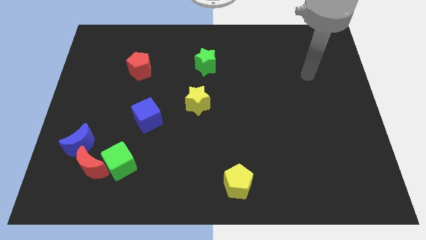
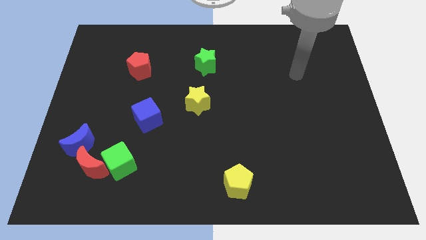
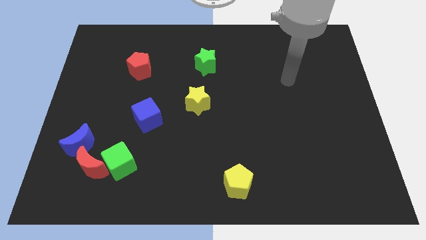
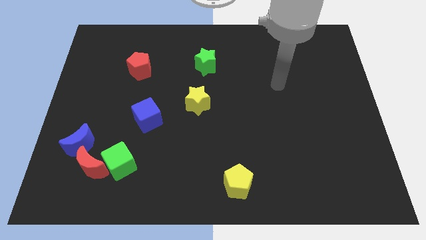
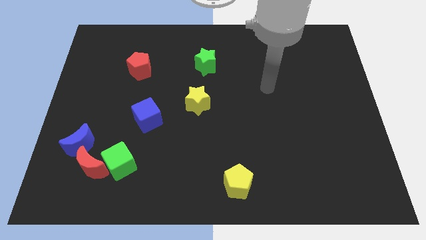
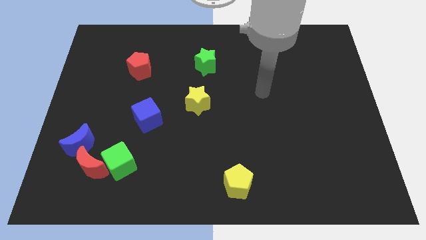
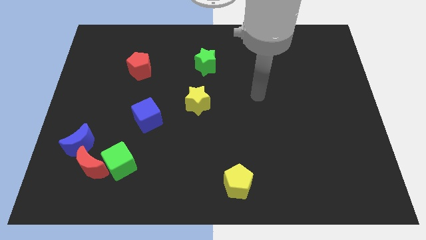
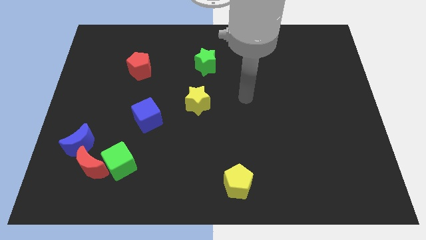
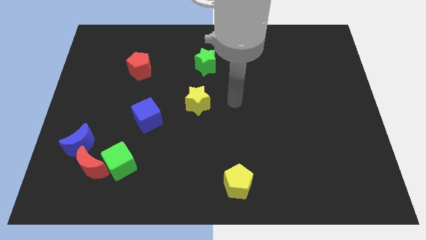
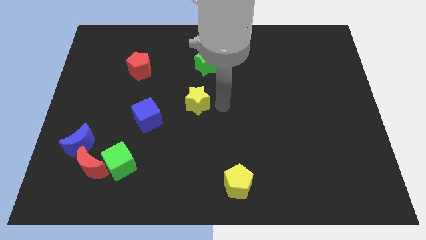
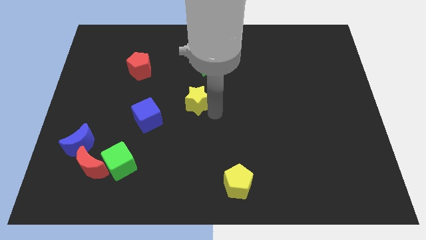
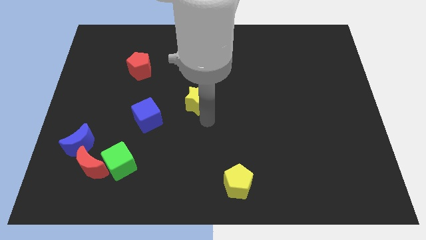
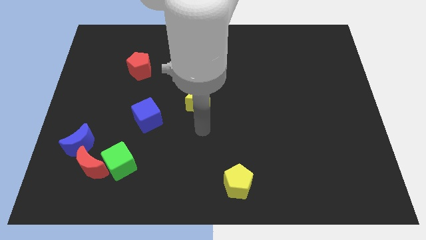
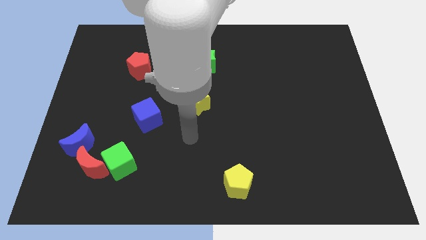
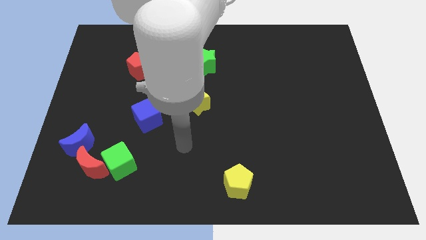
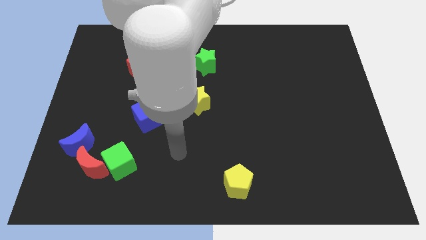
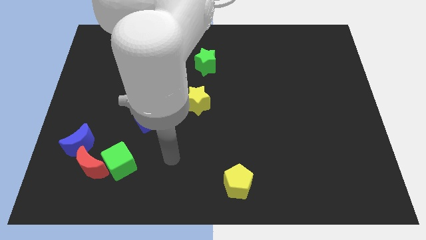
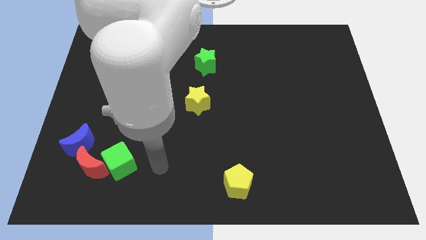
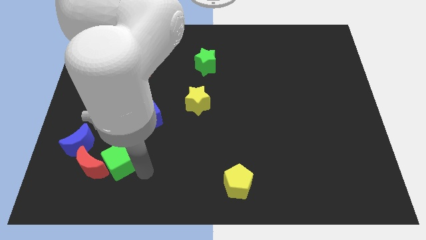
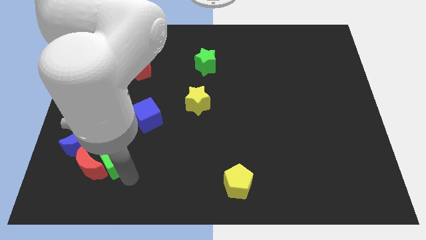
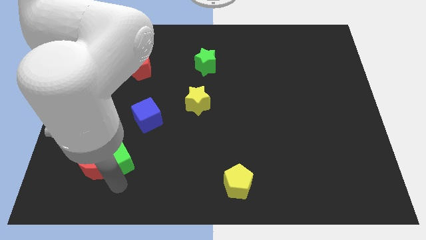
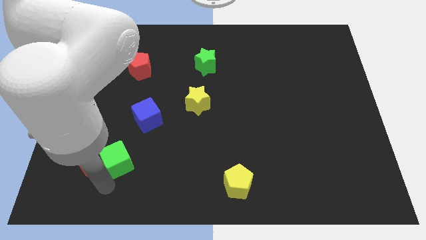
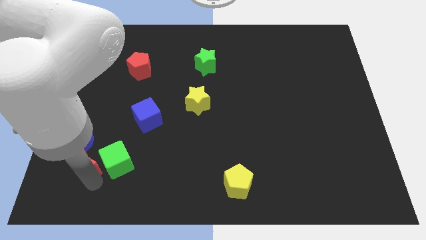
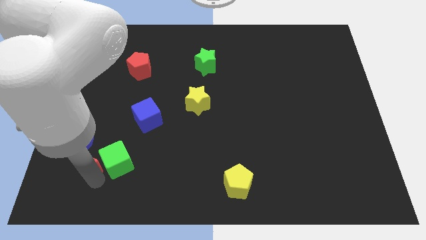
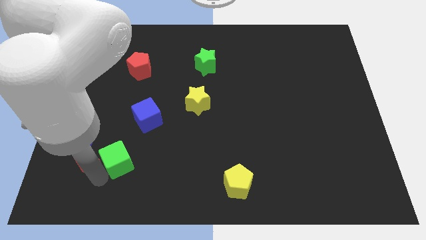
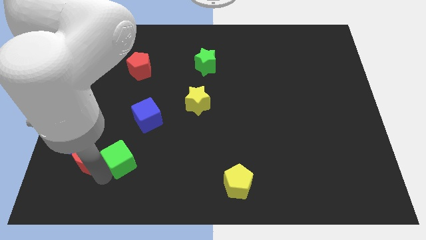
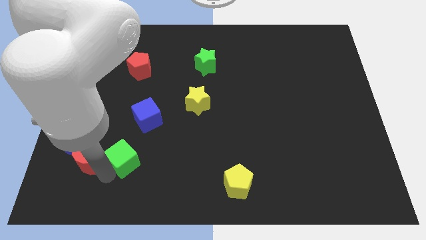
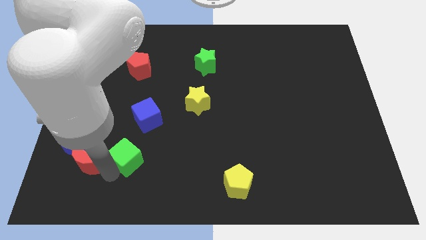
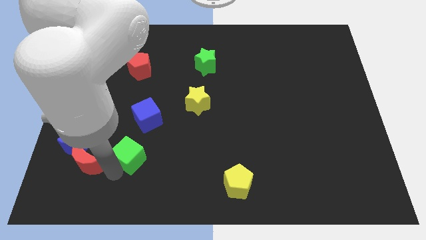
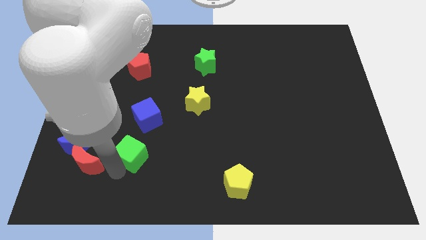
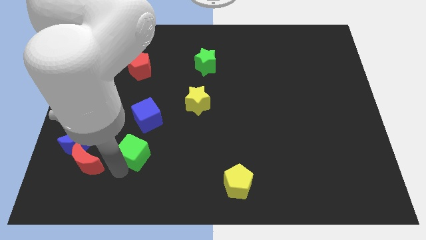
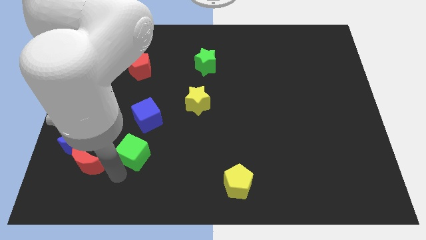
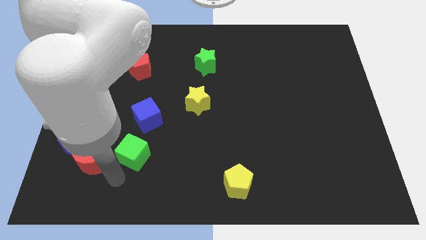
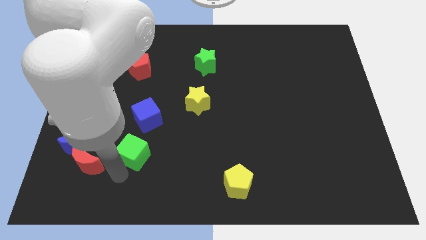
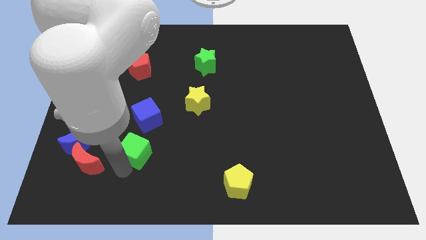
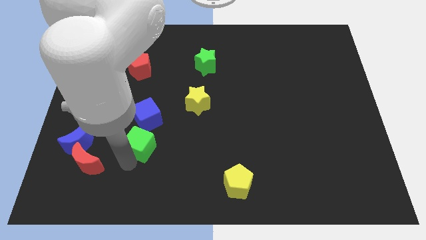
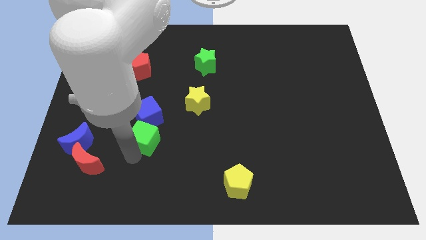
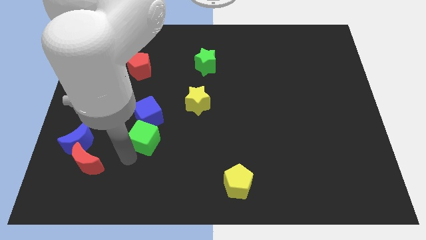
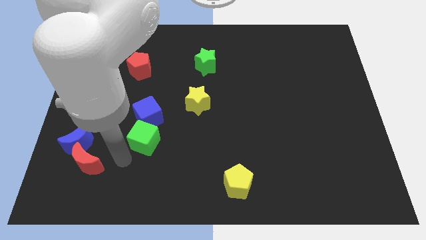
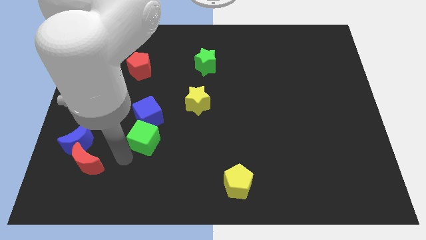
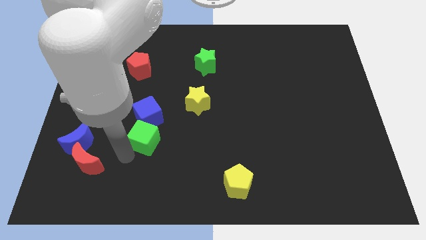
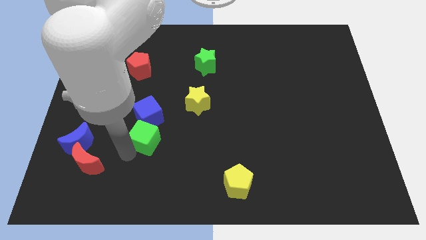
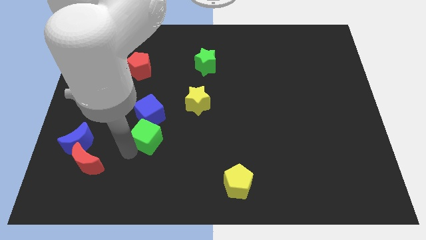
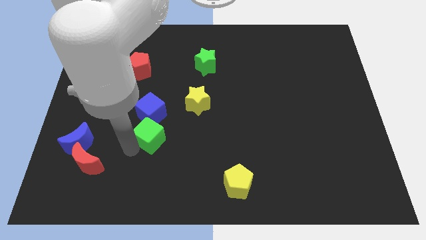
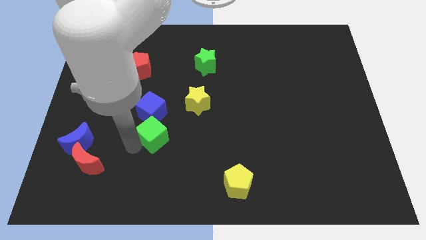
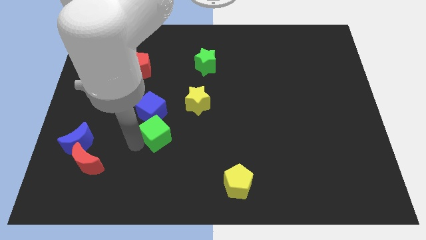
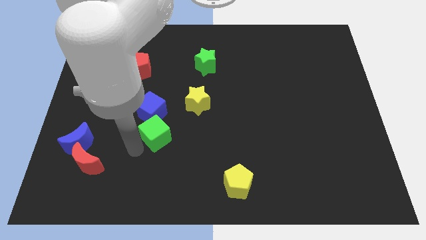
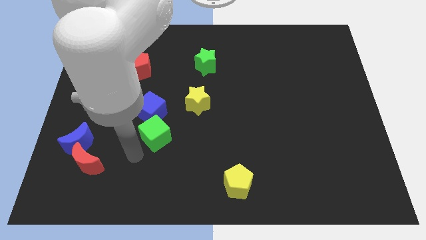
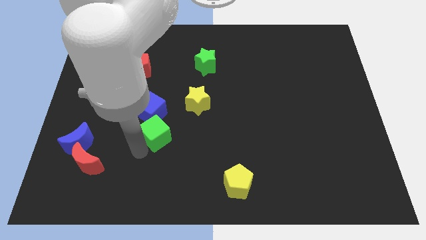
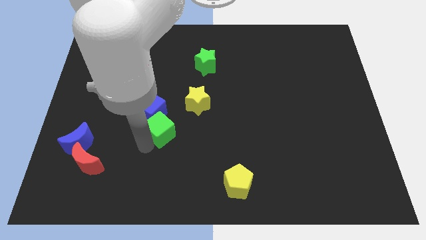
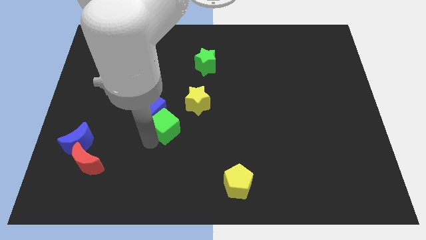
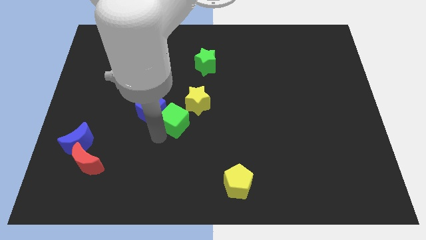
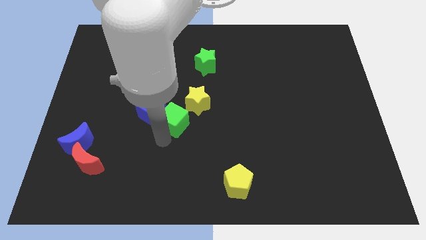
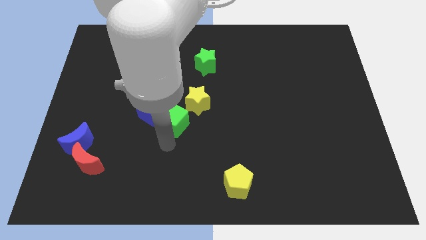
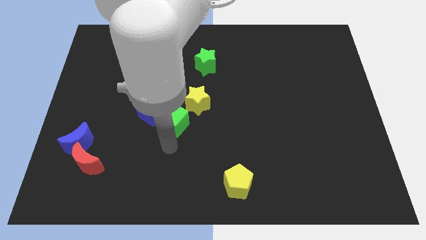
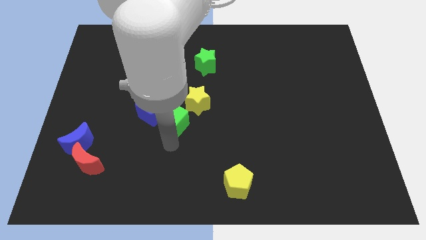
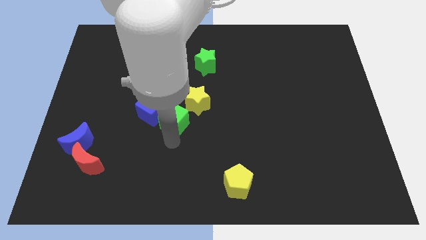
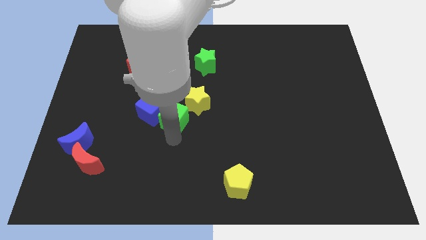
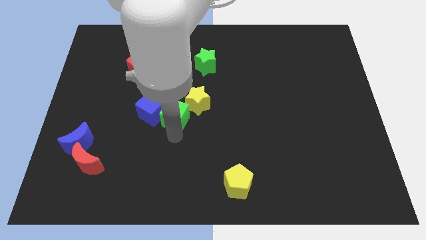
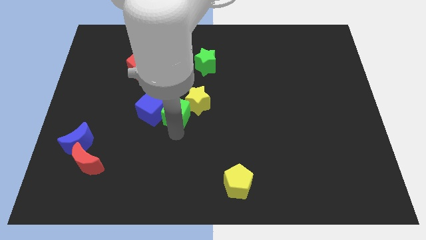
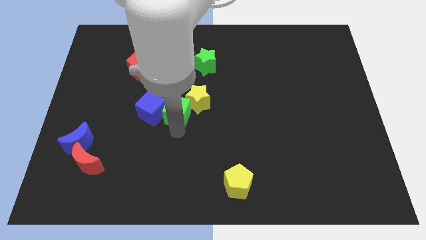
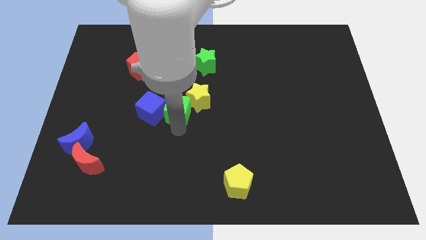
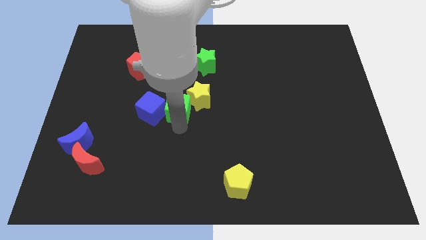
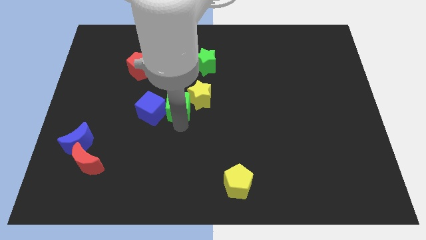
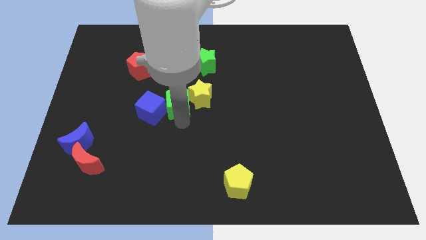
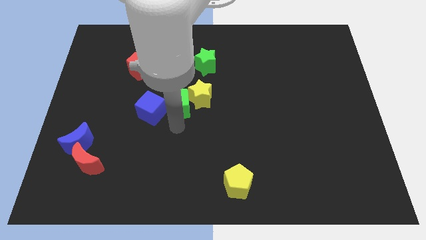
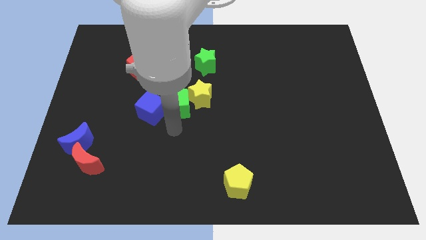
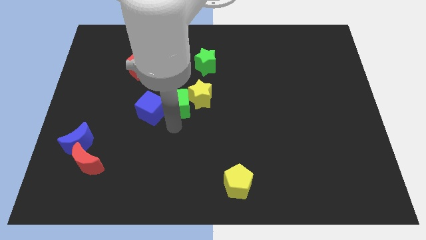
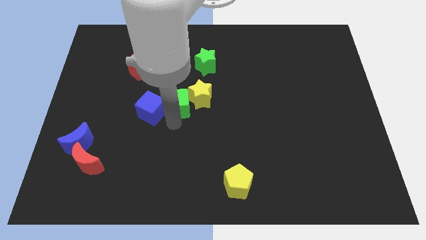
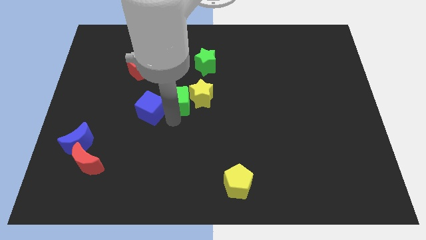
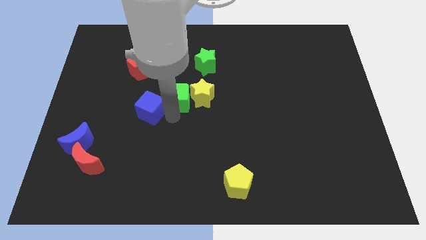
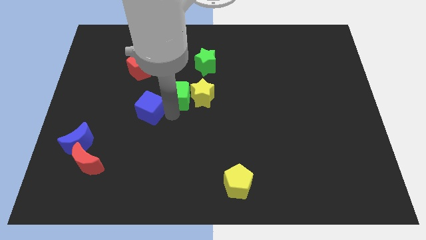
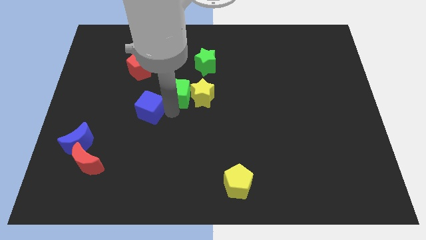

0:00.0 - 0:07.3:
slide the green cube to the bottom left of the green star
